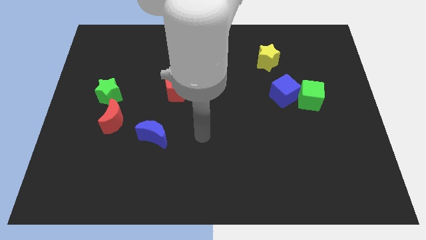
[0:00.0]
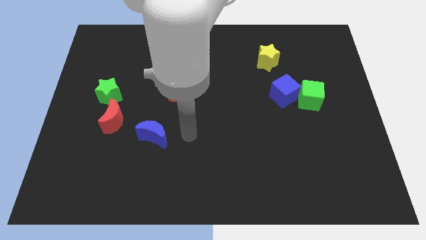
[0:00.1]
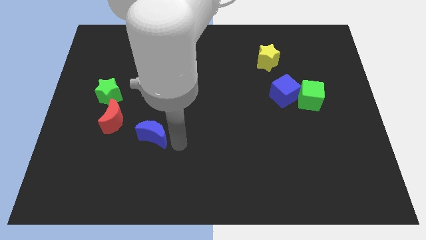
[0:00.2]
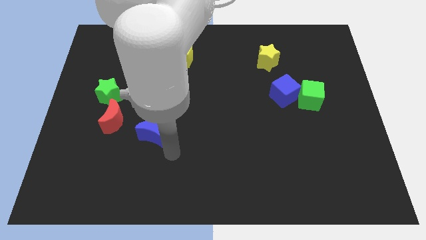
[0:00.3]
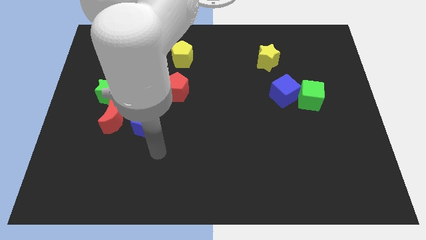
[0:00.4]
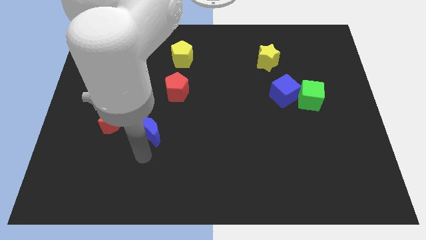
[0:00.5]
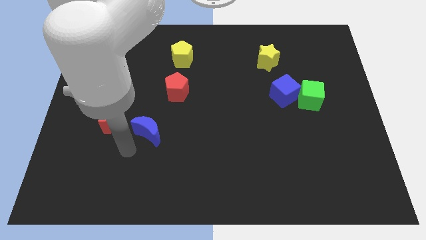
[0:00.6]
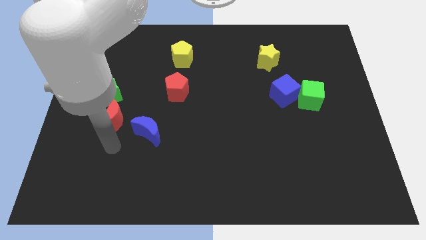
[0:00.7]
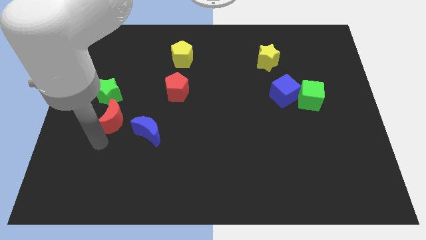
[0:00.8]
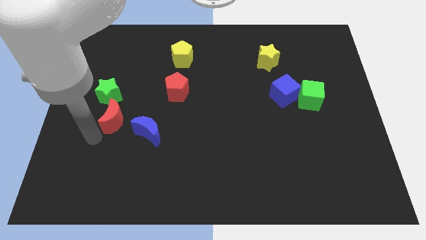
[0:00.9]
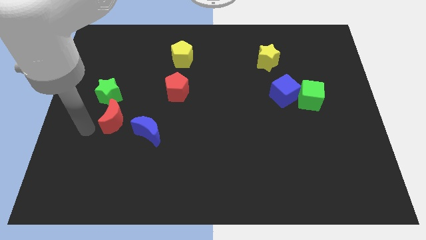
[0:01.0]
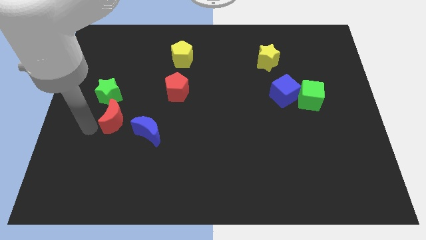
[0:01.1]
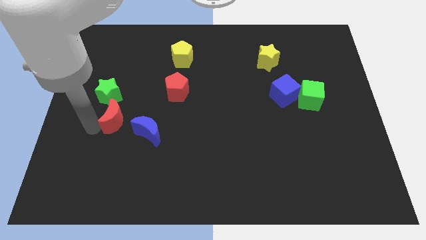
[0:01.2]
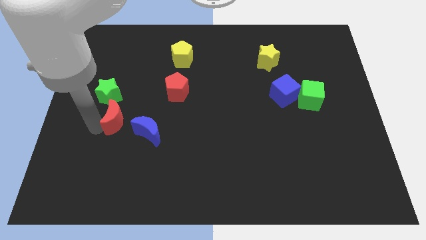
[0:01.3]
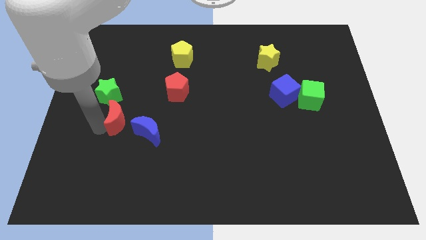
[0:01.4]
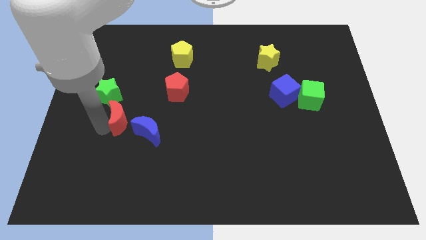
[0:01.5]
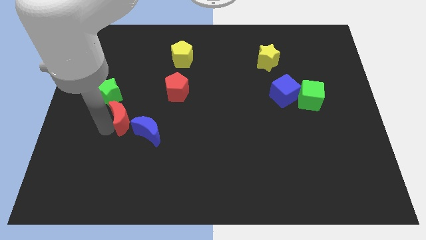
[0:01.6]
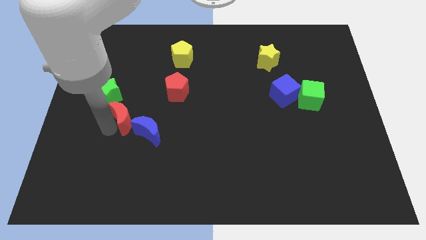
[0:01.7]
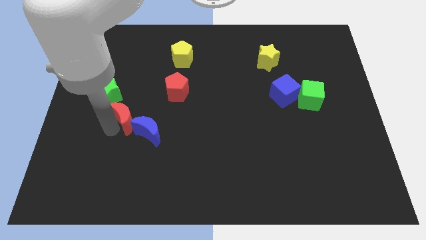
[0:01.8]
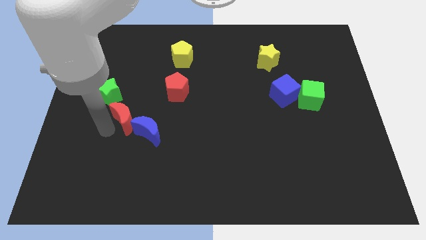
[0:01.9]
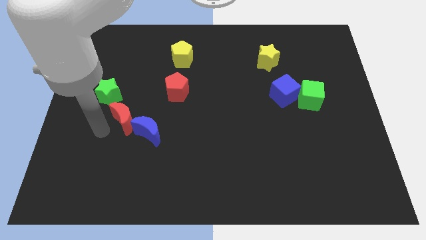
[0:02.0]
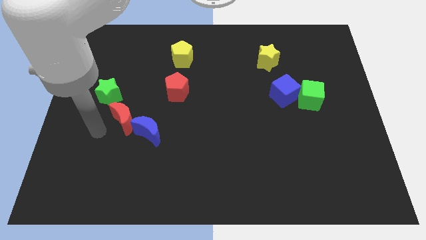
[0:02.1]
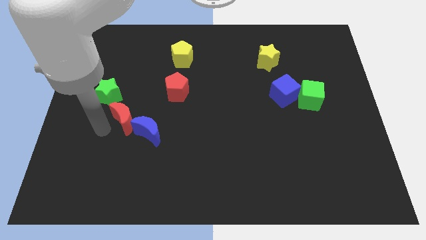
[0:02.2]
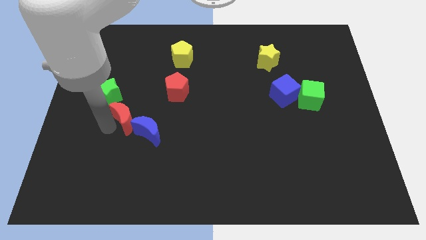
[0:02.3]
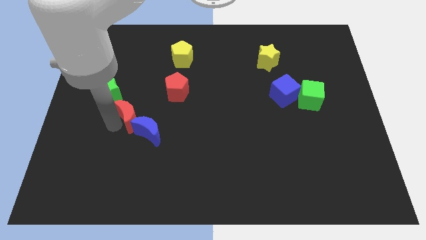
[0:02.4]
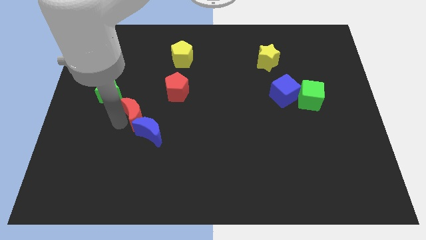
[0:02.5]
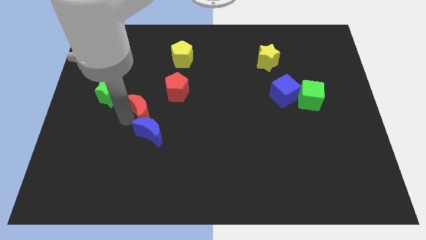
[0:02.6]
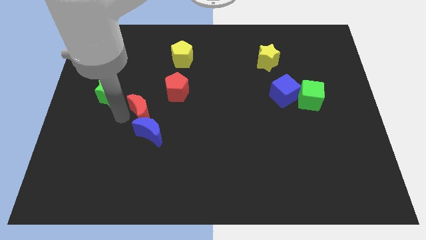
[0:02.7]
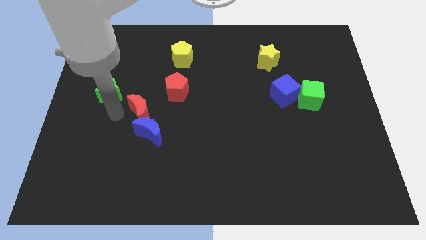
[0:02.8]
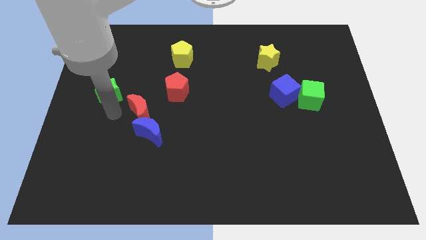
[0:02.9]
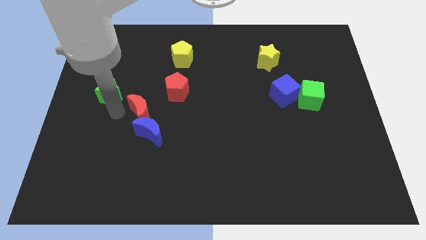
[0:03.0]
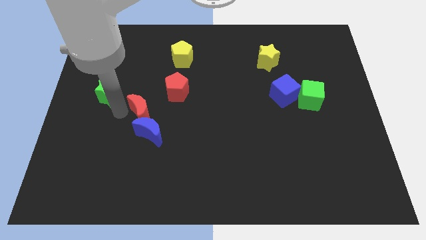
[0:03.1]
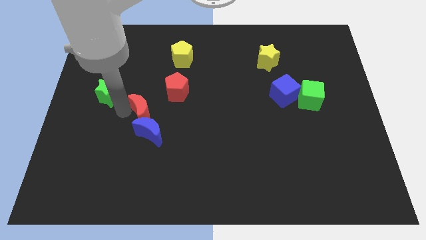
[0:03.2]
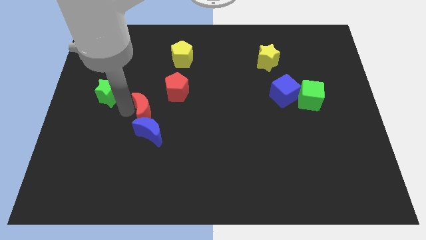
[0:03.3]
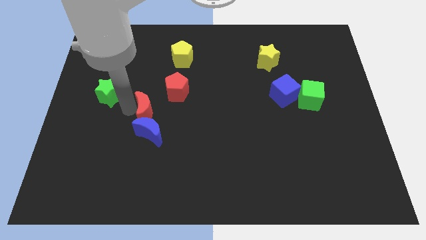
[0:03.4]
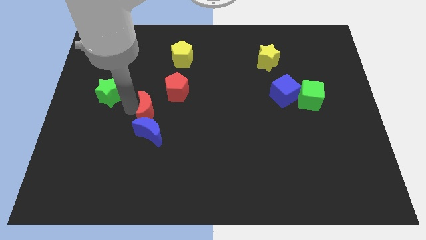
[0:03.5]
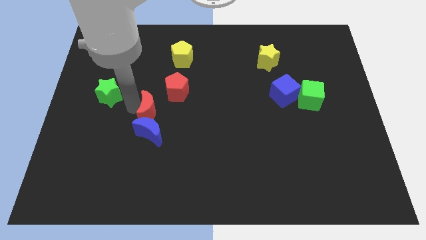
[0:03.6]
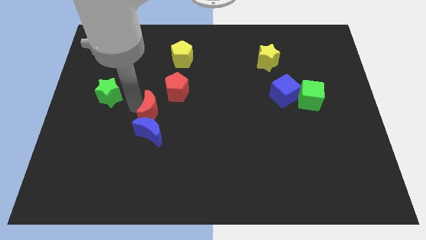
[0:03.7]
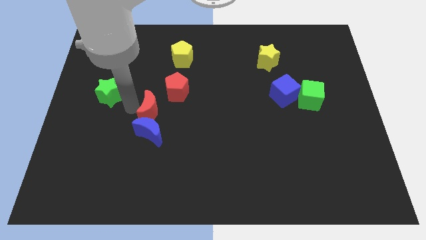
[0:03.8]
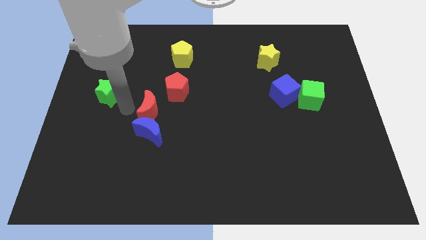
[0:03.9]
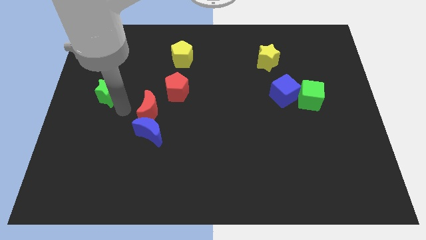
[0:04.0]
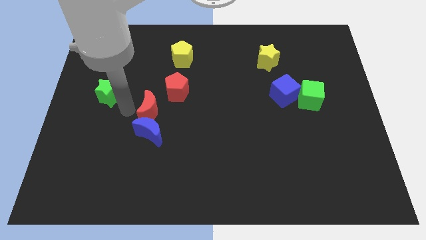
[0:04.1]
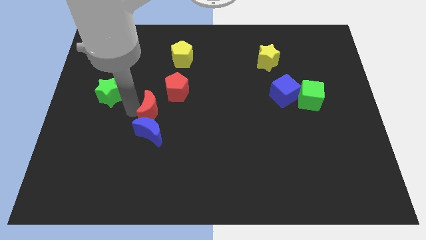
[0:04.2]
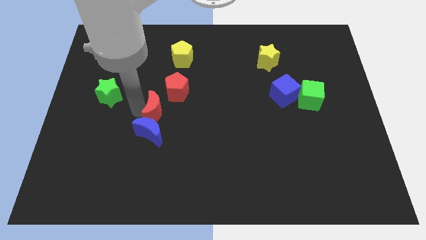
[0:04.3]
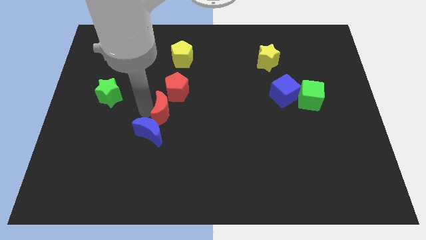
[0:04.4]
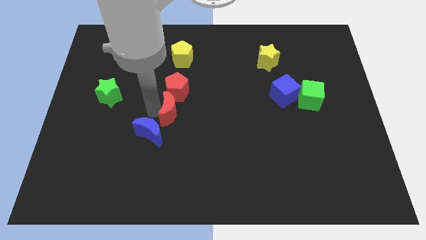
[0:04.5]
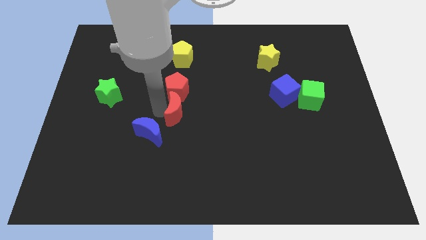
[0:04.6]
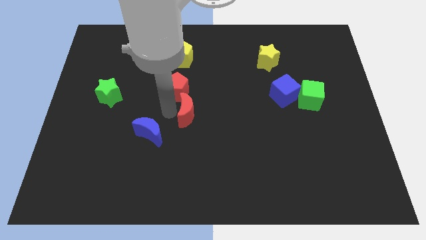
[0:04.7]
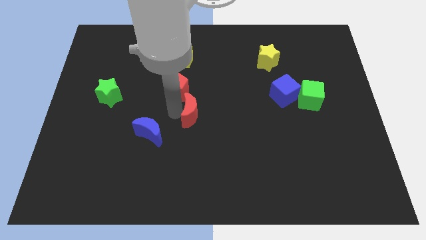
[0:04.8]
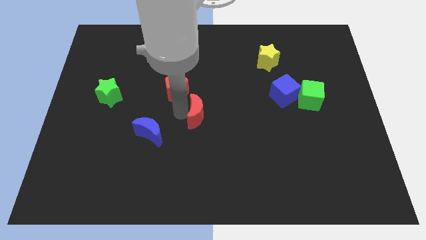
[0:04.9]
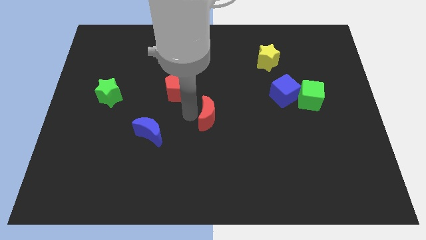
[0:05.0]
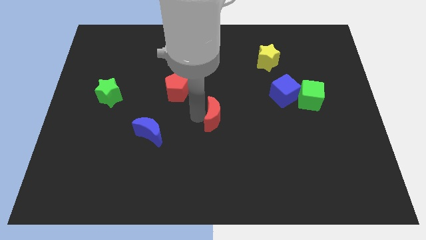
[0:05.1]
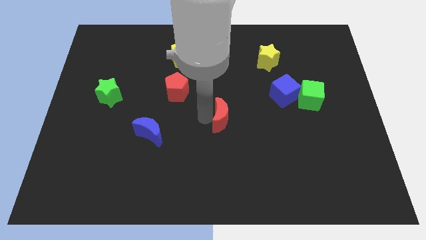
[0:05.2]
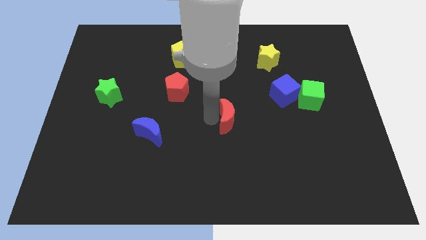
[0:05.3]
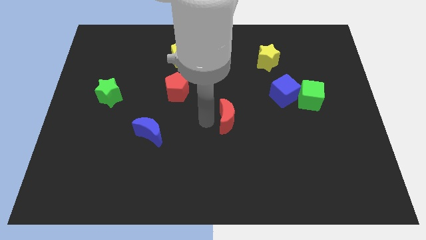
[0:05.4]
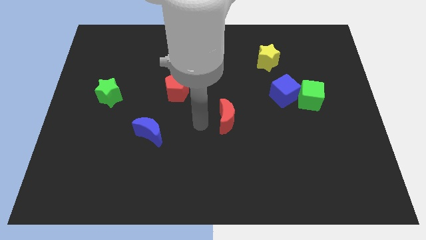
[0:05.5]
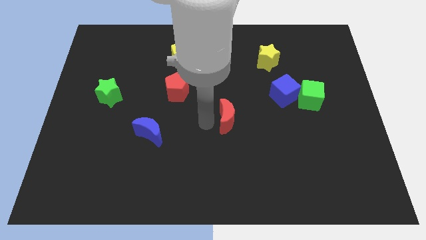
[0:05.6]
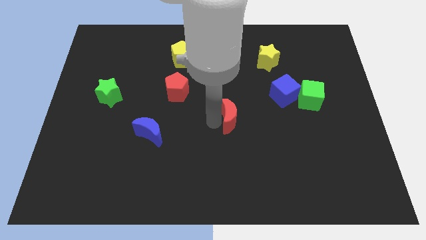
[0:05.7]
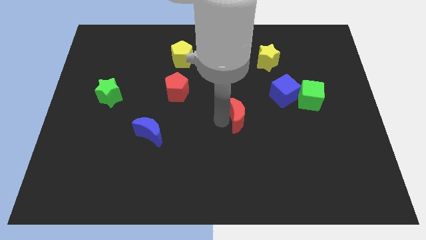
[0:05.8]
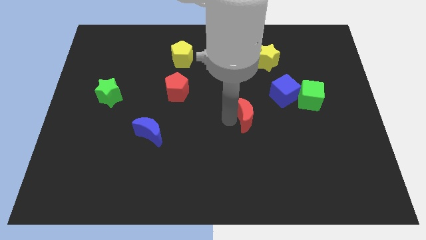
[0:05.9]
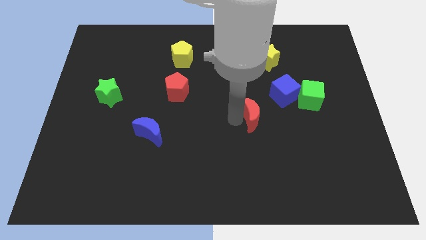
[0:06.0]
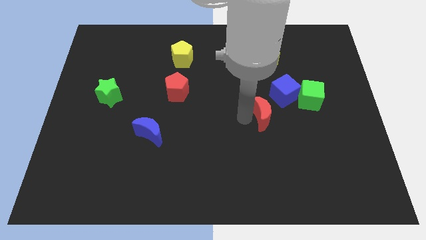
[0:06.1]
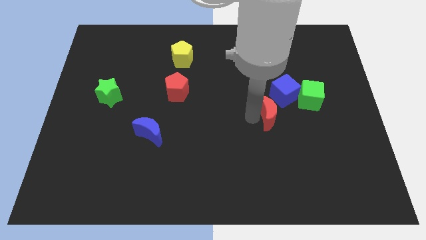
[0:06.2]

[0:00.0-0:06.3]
put the red moon to the bottom left side of the green cube

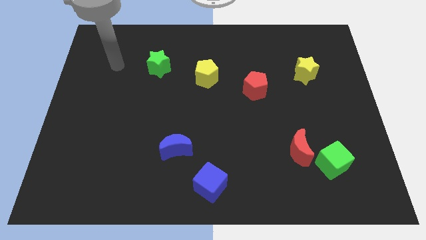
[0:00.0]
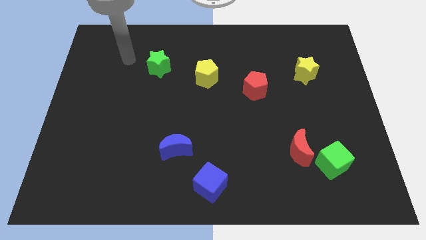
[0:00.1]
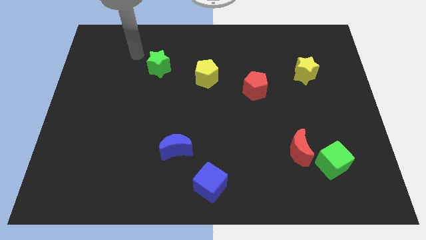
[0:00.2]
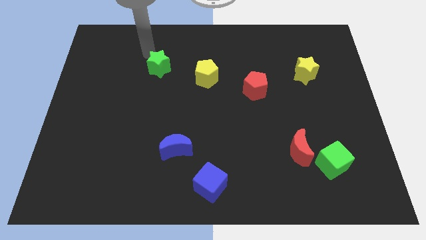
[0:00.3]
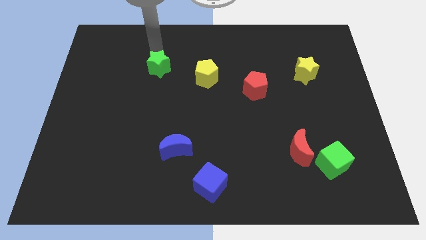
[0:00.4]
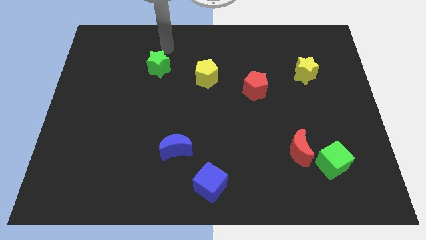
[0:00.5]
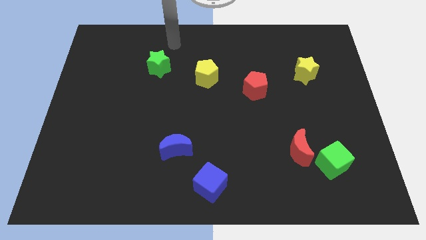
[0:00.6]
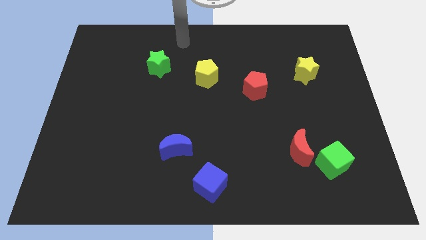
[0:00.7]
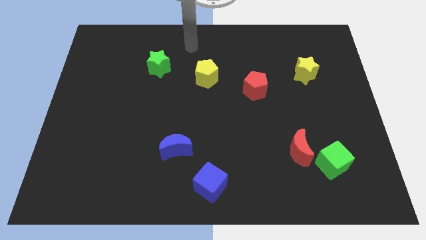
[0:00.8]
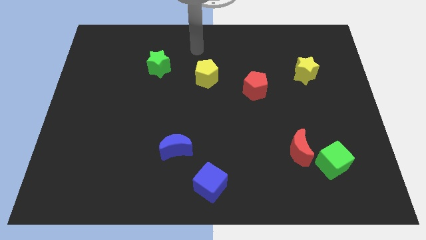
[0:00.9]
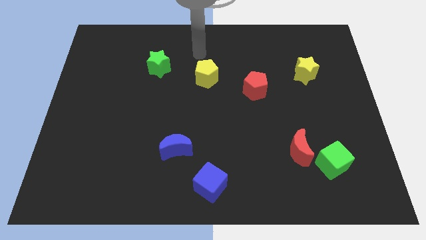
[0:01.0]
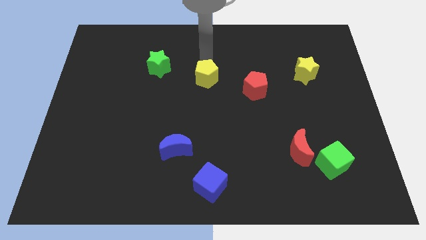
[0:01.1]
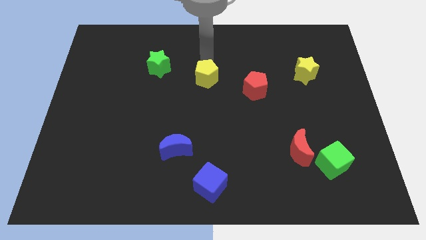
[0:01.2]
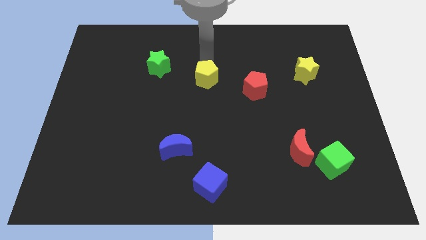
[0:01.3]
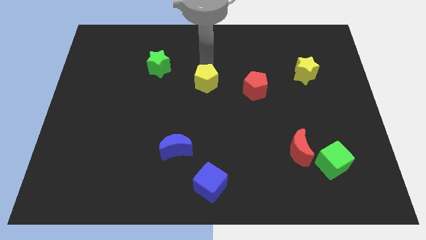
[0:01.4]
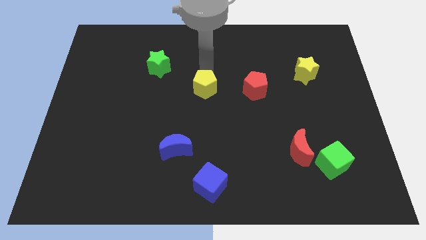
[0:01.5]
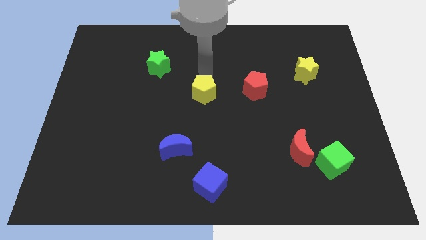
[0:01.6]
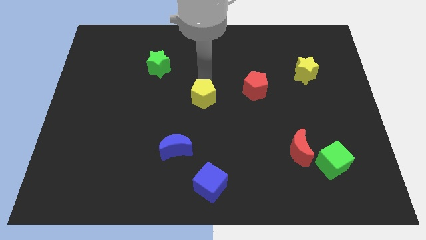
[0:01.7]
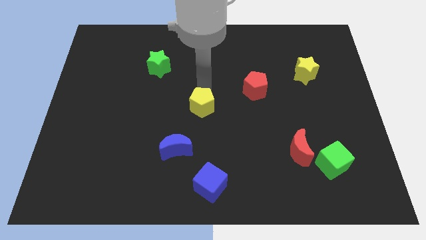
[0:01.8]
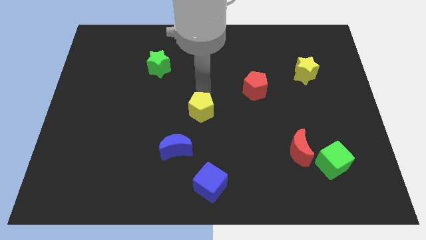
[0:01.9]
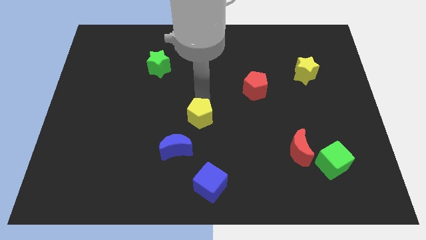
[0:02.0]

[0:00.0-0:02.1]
push the yellow pentagon diagonally up and to the right of the blue moon
